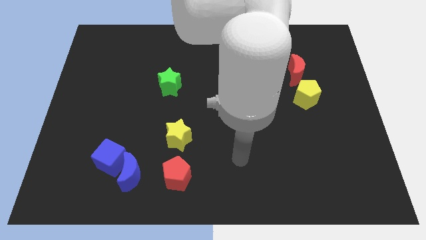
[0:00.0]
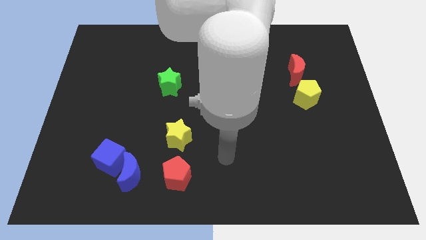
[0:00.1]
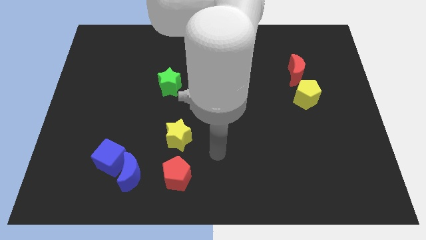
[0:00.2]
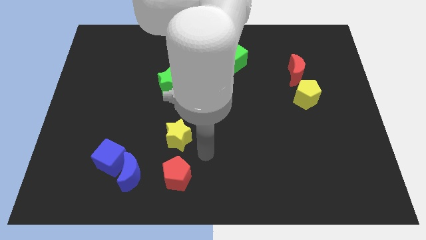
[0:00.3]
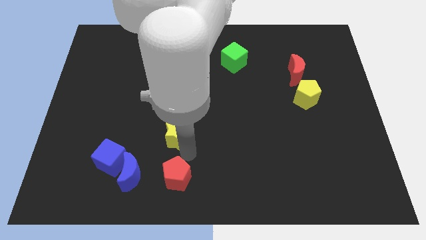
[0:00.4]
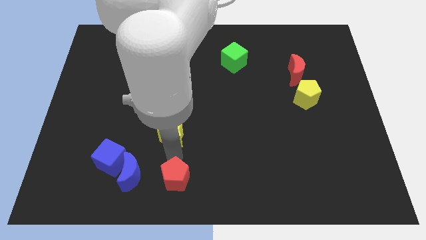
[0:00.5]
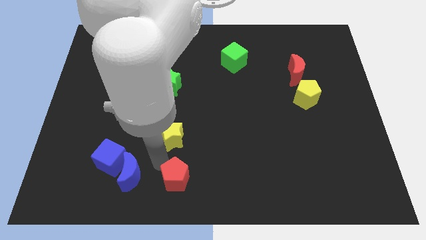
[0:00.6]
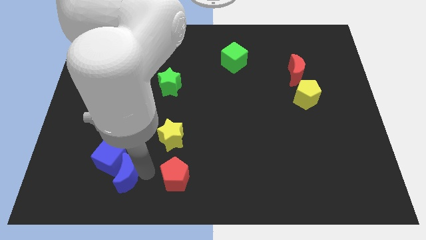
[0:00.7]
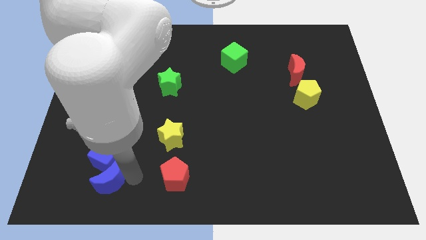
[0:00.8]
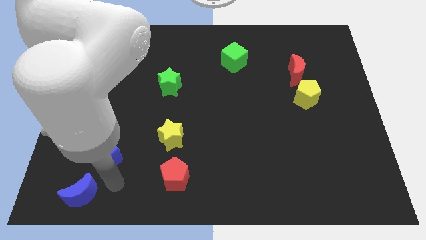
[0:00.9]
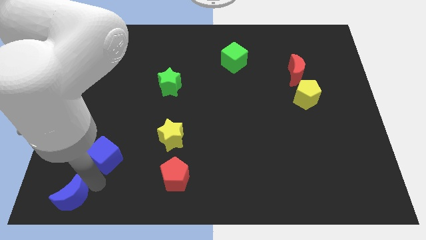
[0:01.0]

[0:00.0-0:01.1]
pull the blue cube apart from the blue moon

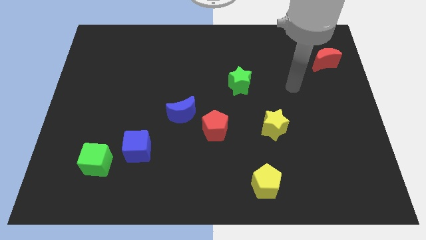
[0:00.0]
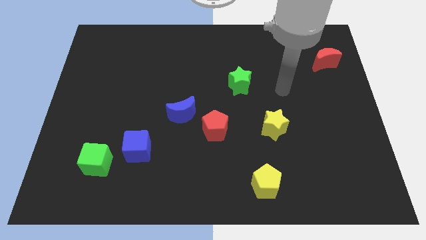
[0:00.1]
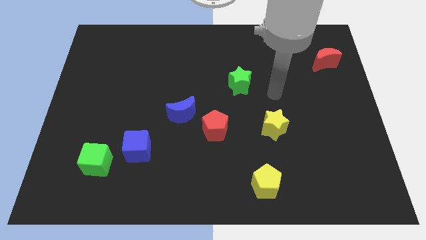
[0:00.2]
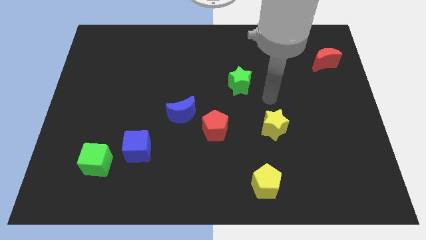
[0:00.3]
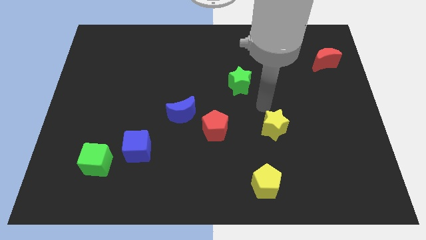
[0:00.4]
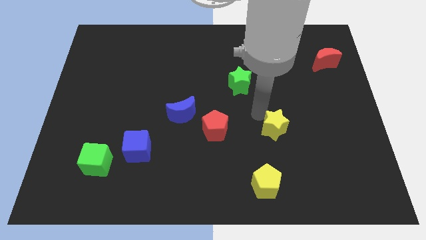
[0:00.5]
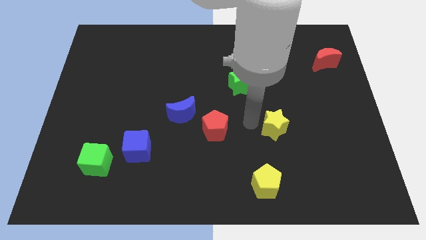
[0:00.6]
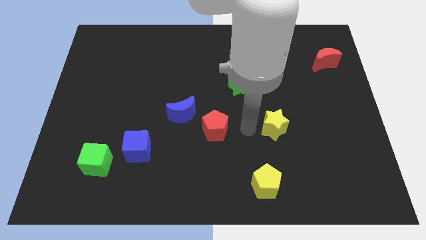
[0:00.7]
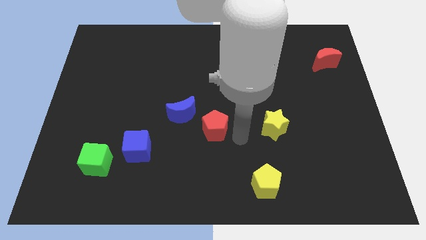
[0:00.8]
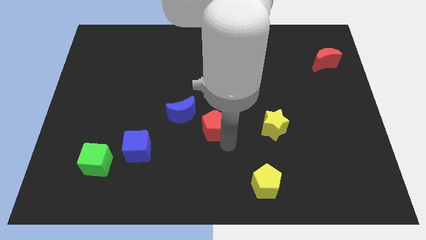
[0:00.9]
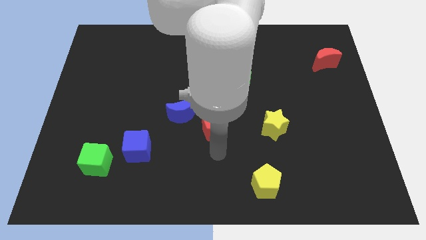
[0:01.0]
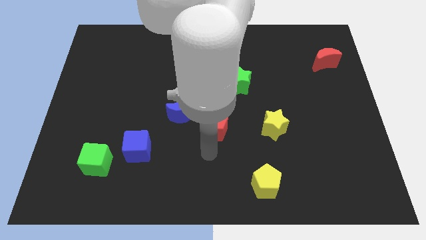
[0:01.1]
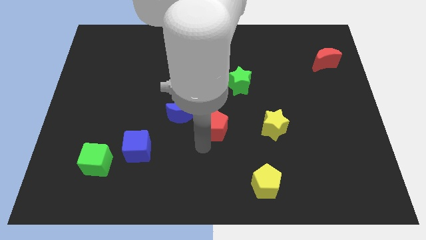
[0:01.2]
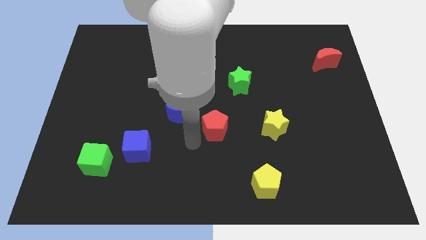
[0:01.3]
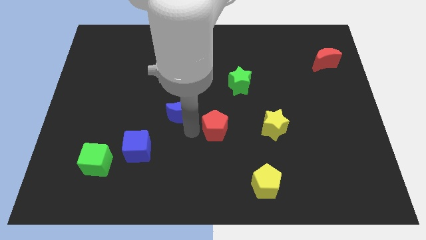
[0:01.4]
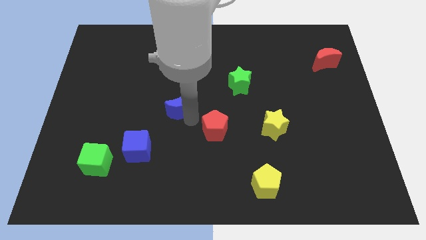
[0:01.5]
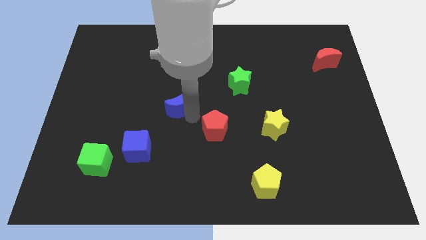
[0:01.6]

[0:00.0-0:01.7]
pull the red pentagon apart from the blue moon

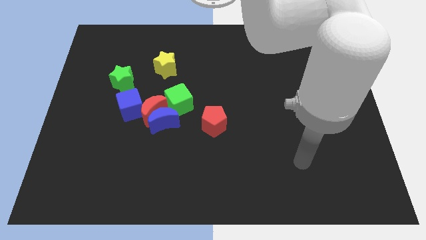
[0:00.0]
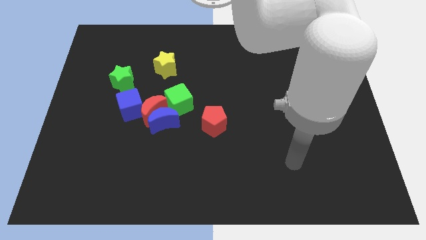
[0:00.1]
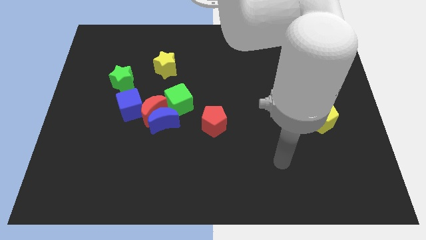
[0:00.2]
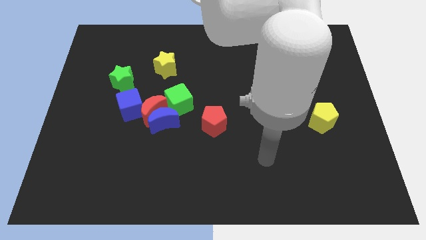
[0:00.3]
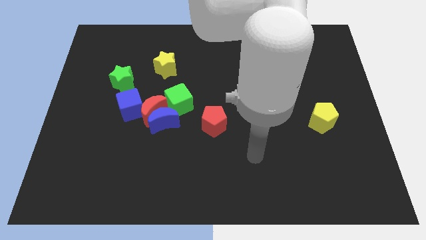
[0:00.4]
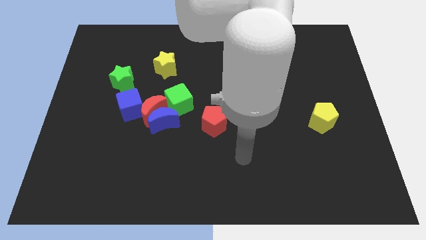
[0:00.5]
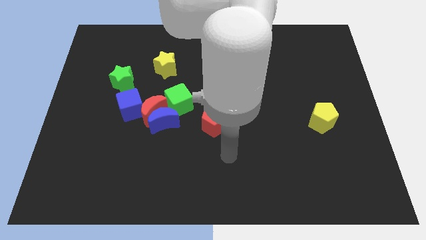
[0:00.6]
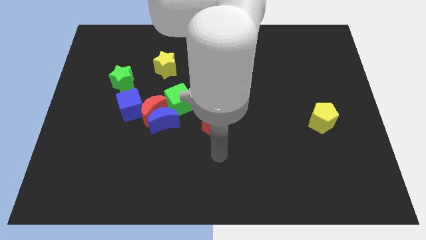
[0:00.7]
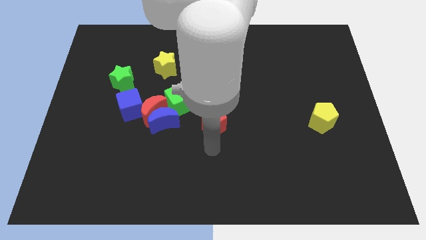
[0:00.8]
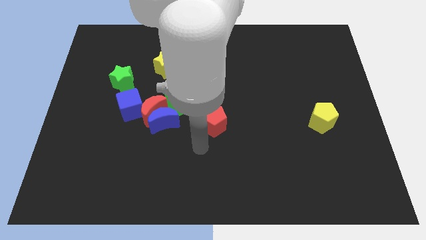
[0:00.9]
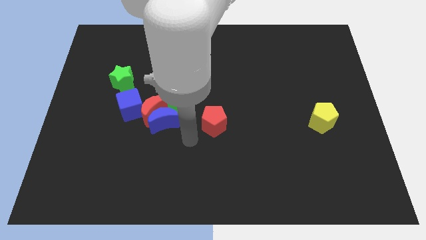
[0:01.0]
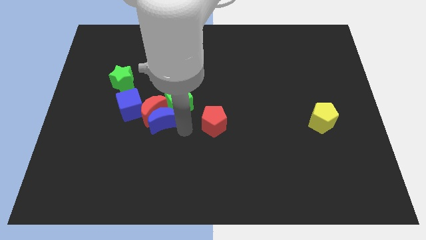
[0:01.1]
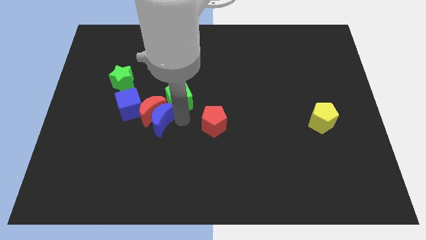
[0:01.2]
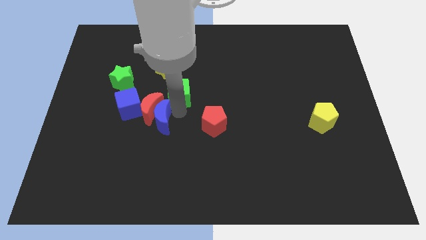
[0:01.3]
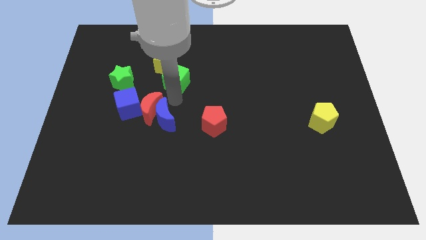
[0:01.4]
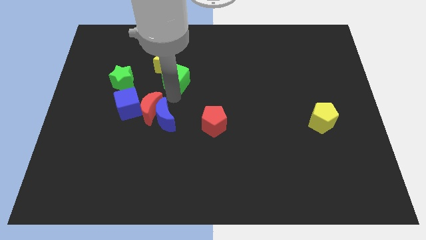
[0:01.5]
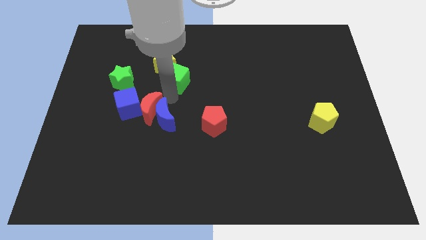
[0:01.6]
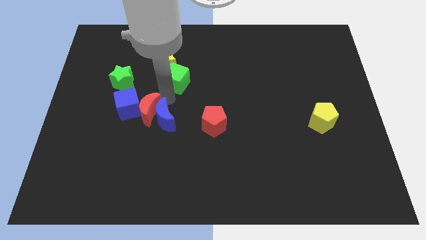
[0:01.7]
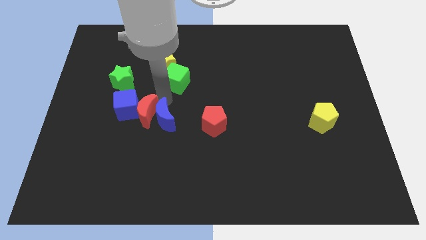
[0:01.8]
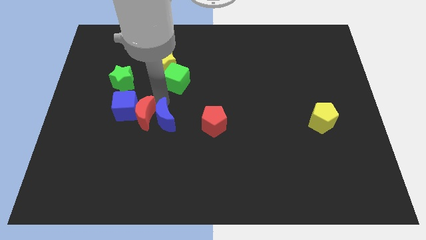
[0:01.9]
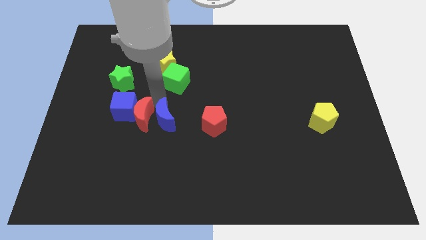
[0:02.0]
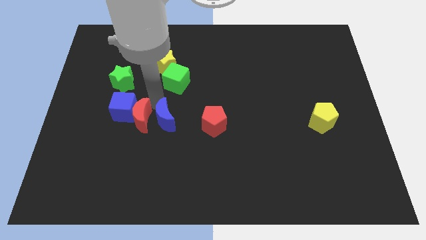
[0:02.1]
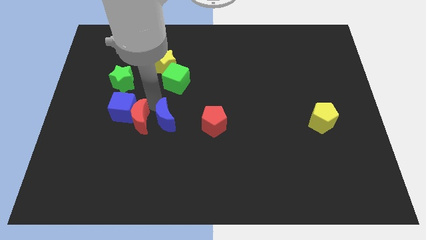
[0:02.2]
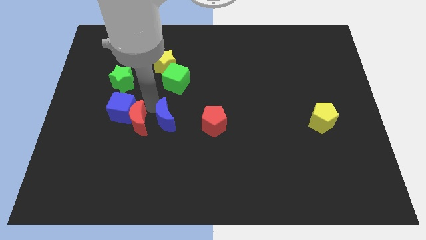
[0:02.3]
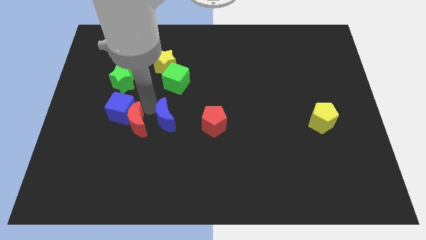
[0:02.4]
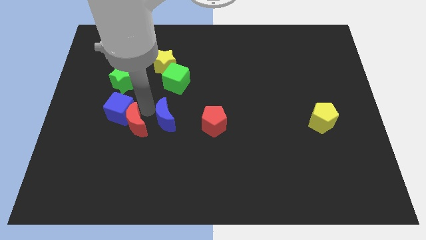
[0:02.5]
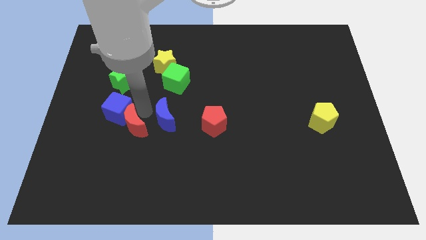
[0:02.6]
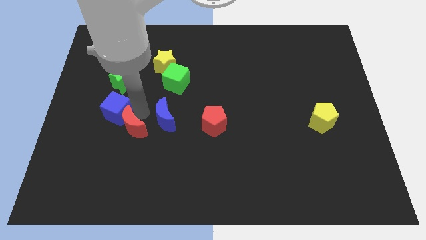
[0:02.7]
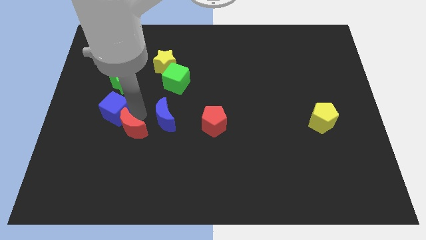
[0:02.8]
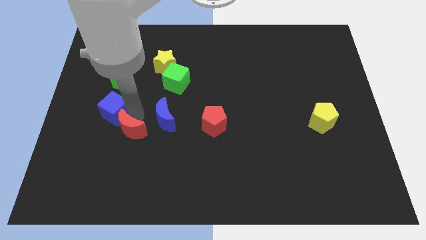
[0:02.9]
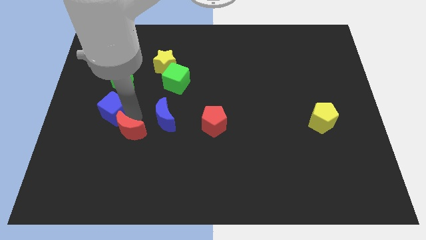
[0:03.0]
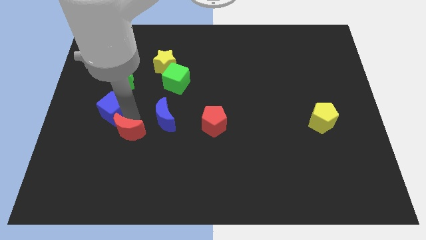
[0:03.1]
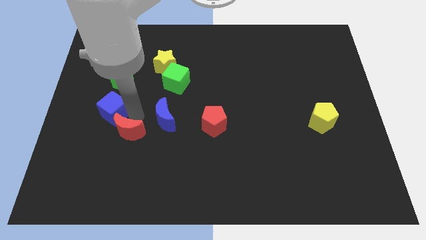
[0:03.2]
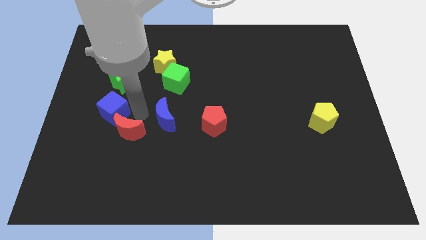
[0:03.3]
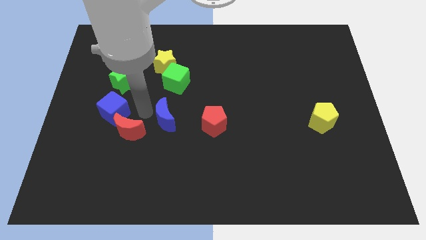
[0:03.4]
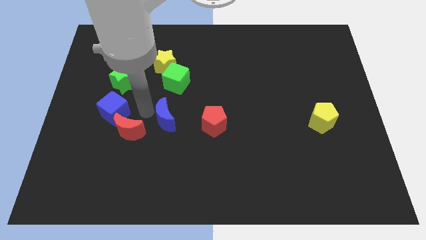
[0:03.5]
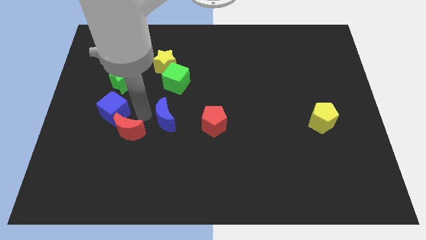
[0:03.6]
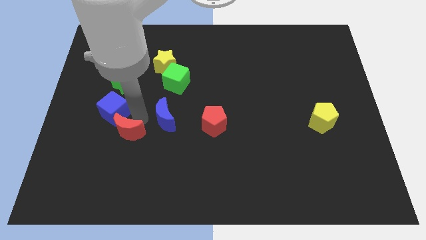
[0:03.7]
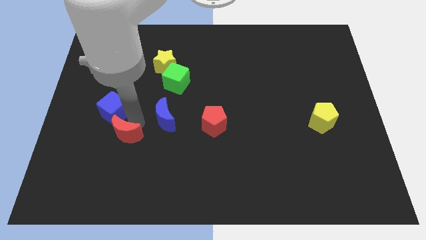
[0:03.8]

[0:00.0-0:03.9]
pull the red moon apart from the group

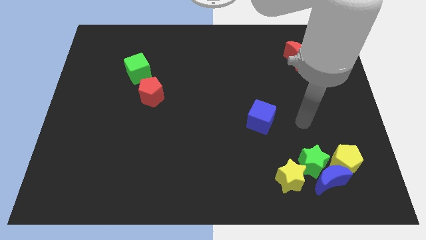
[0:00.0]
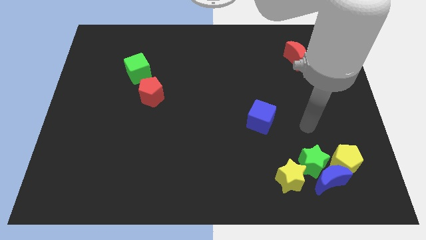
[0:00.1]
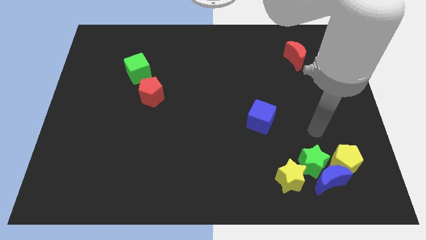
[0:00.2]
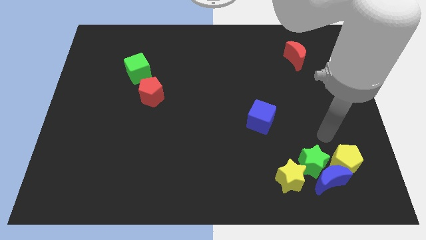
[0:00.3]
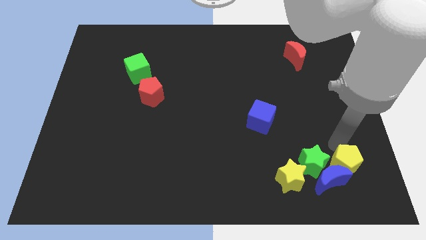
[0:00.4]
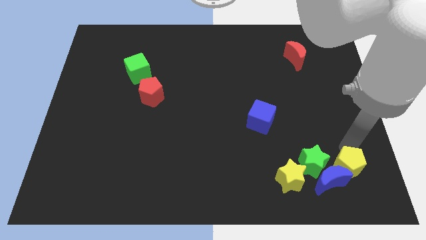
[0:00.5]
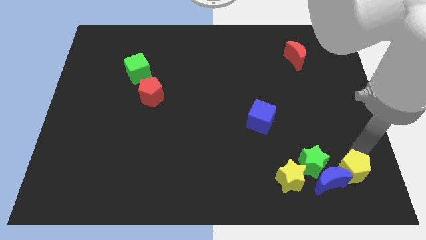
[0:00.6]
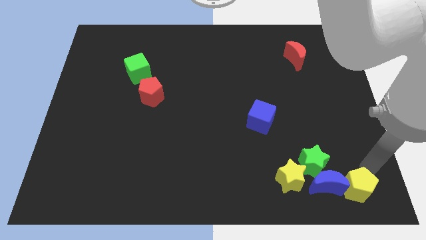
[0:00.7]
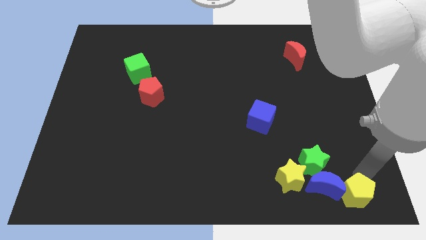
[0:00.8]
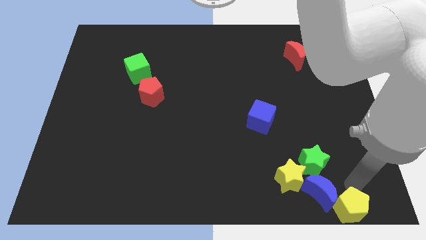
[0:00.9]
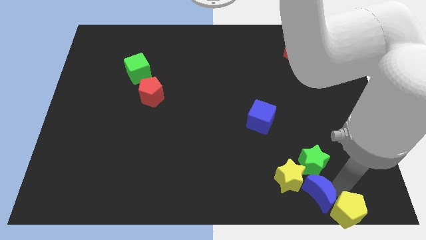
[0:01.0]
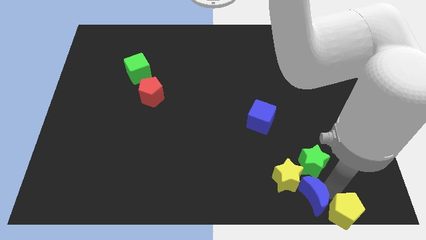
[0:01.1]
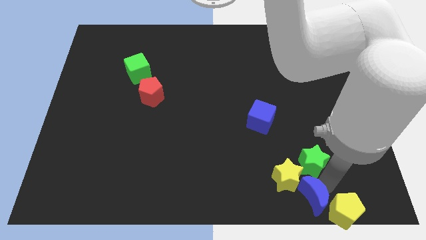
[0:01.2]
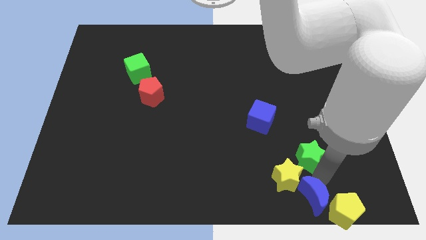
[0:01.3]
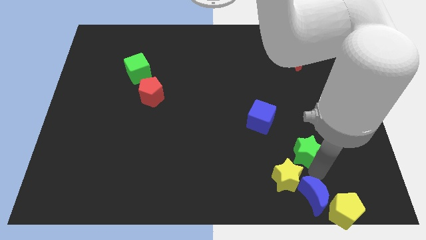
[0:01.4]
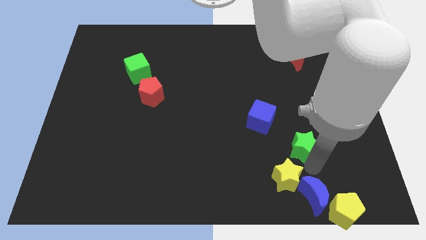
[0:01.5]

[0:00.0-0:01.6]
move the green star away from the group of blocks

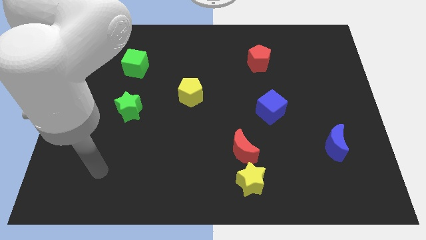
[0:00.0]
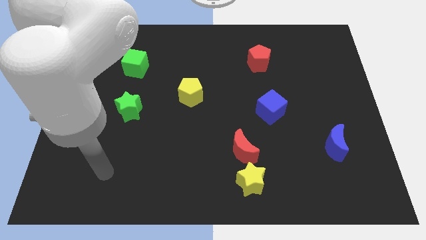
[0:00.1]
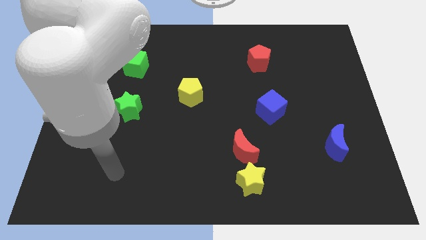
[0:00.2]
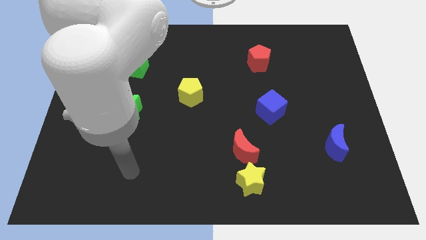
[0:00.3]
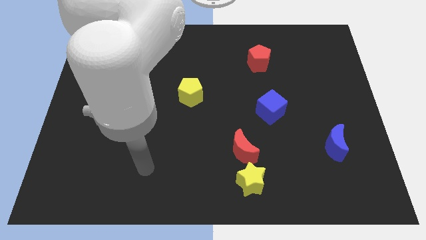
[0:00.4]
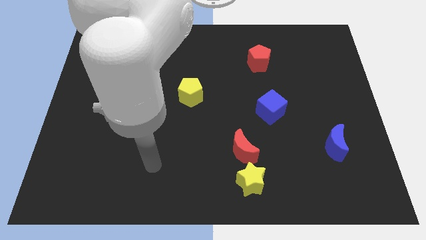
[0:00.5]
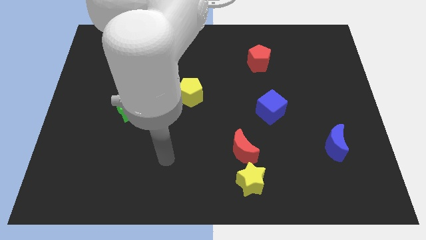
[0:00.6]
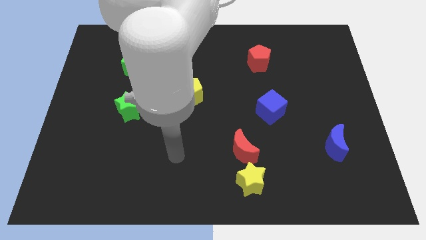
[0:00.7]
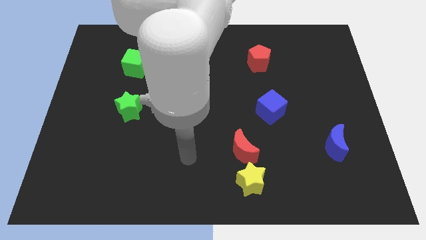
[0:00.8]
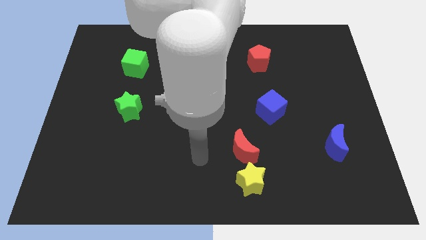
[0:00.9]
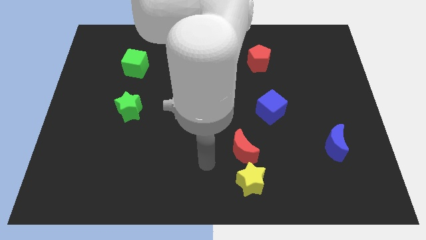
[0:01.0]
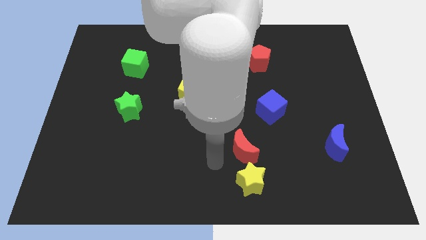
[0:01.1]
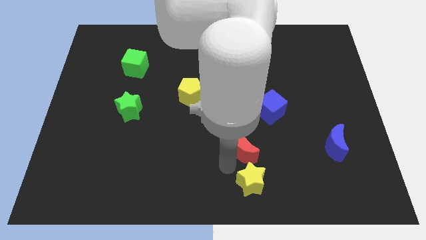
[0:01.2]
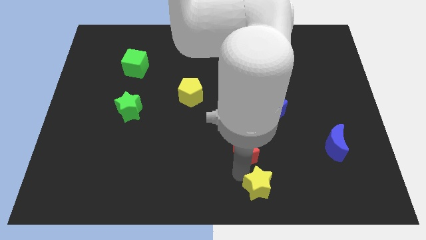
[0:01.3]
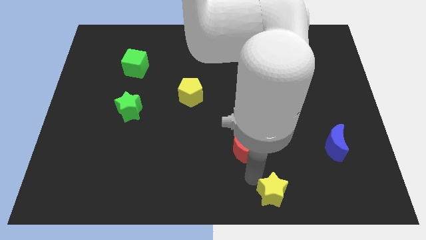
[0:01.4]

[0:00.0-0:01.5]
separate the red moon from the yellow star
